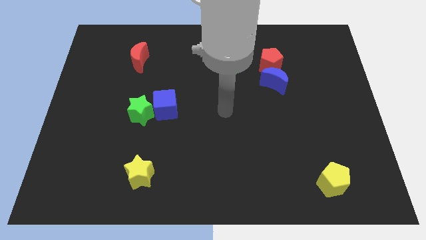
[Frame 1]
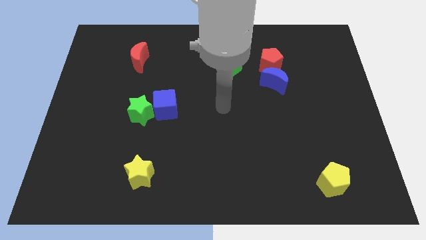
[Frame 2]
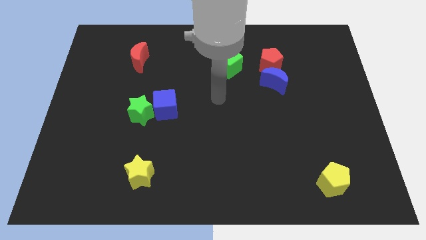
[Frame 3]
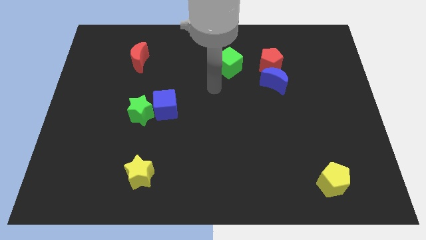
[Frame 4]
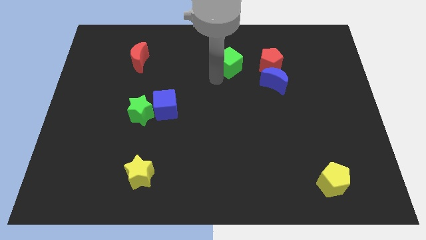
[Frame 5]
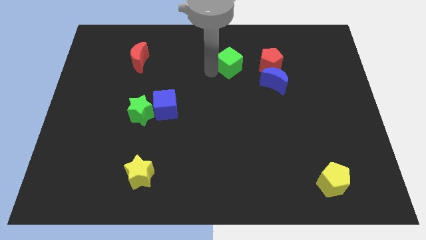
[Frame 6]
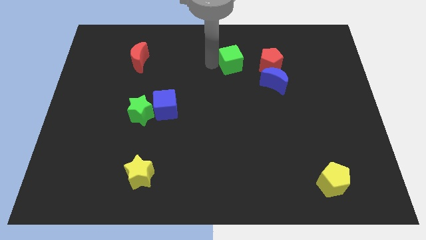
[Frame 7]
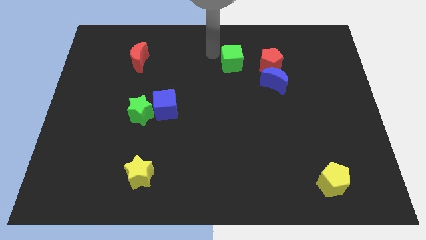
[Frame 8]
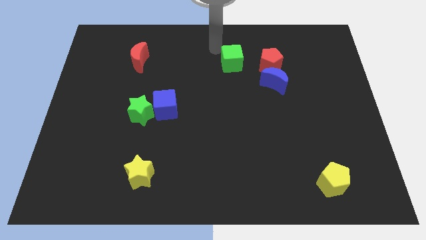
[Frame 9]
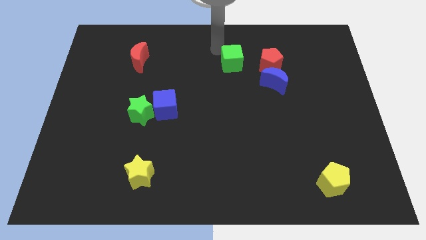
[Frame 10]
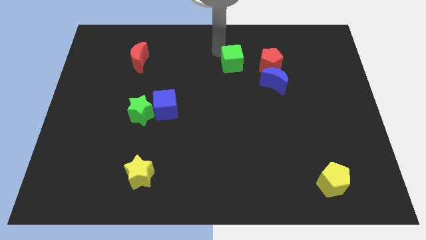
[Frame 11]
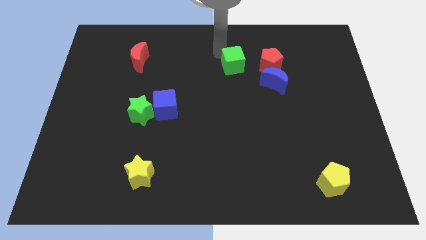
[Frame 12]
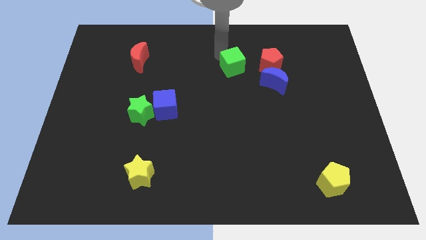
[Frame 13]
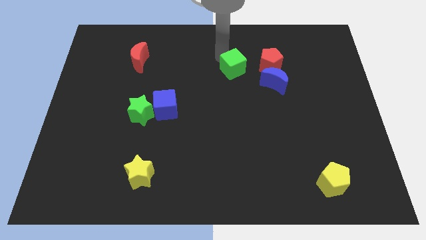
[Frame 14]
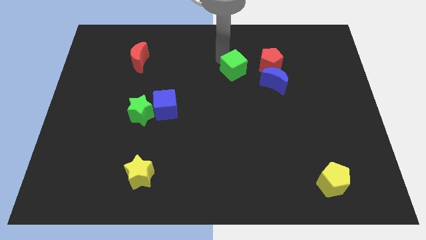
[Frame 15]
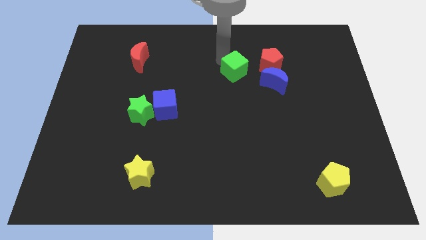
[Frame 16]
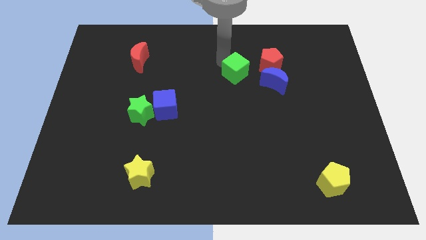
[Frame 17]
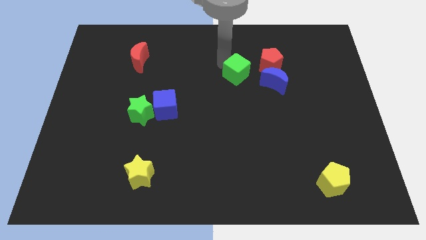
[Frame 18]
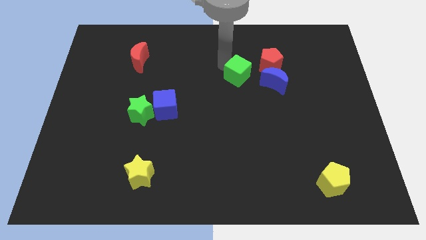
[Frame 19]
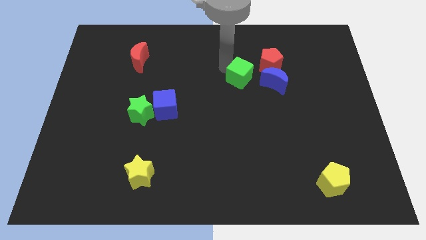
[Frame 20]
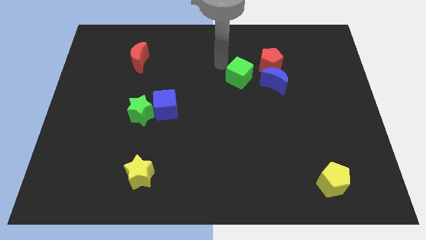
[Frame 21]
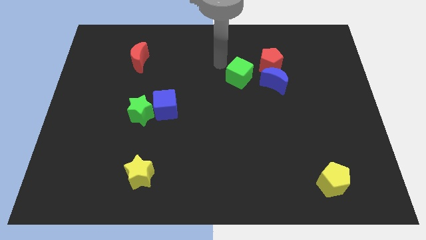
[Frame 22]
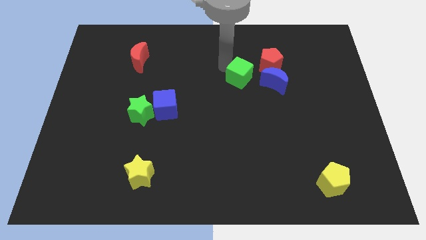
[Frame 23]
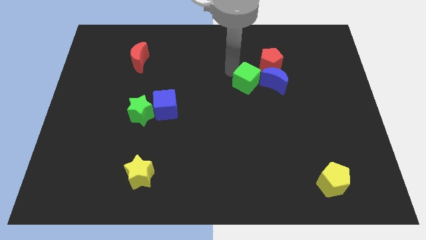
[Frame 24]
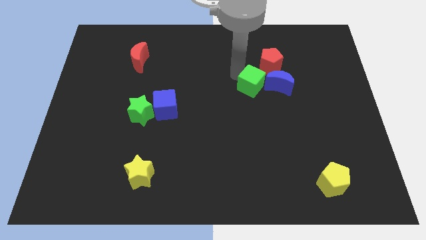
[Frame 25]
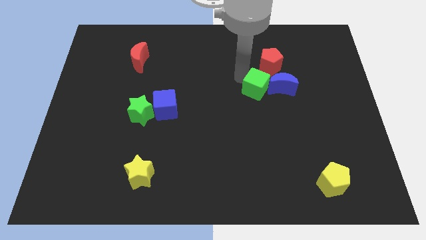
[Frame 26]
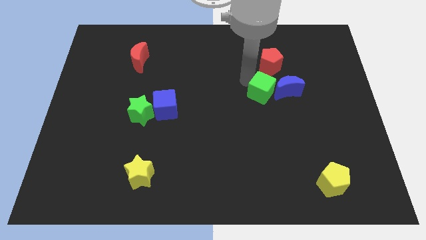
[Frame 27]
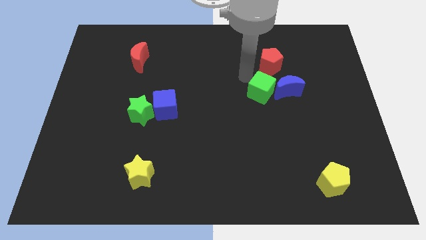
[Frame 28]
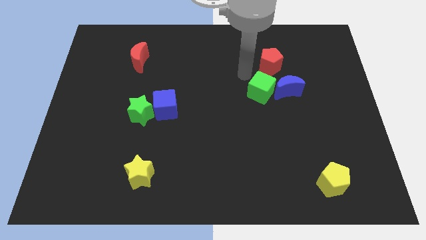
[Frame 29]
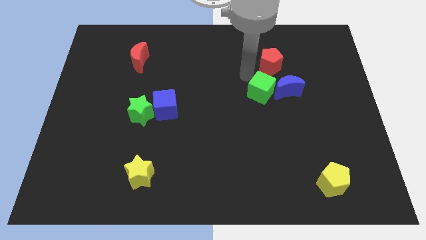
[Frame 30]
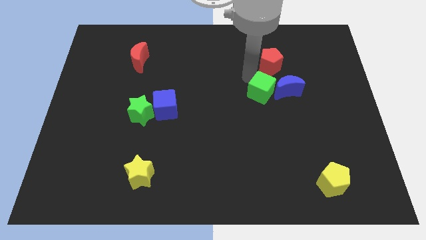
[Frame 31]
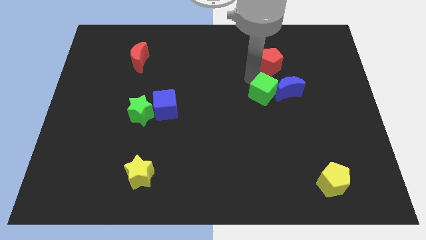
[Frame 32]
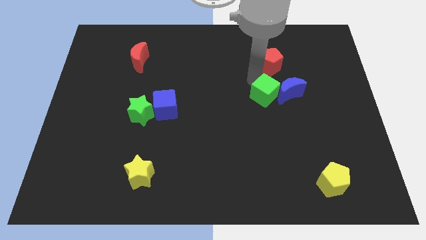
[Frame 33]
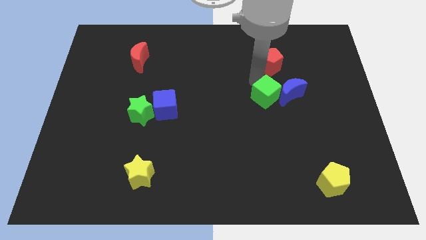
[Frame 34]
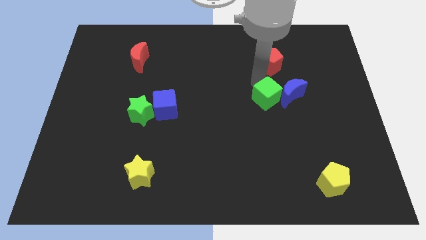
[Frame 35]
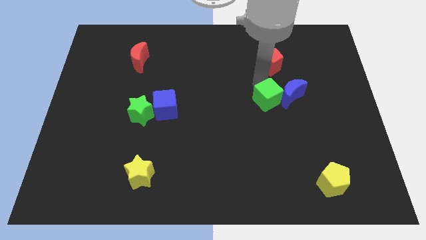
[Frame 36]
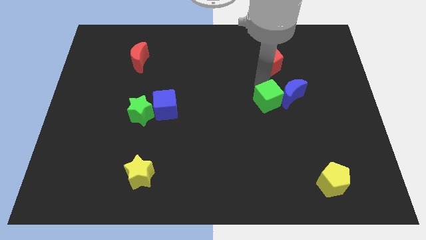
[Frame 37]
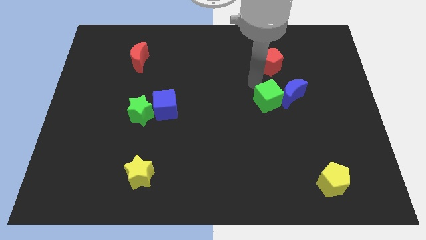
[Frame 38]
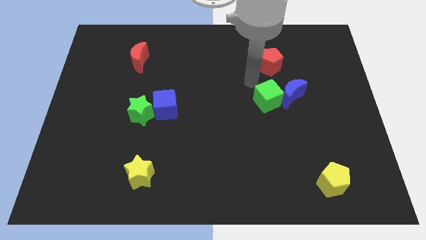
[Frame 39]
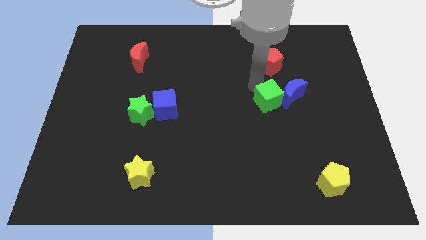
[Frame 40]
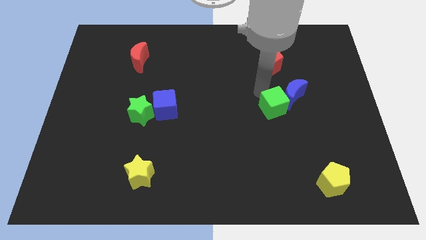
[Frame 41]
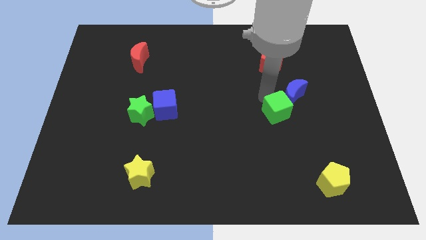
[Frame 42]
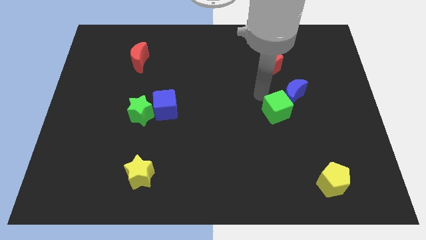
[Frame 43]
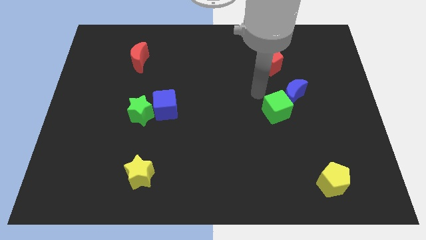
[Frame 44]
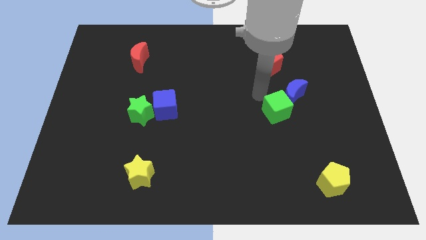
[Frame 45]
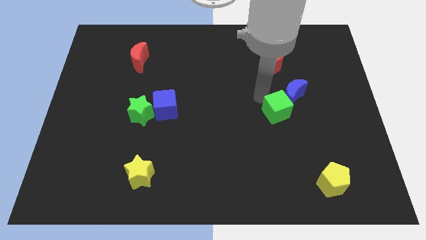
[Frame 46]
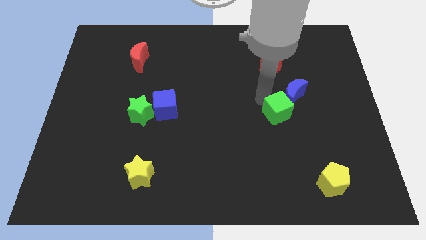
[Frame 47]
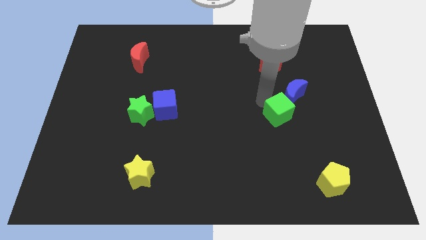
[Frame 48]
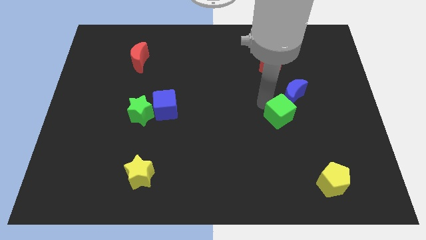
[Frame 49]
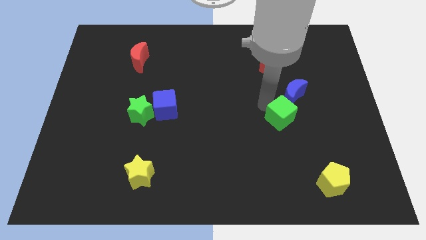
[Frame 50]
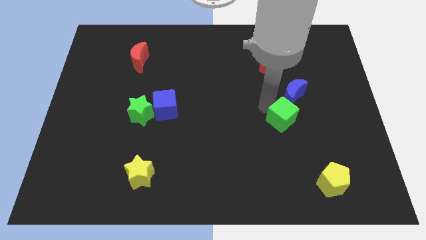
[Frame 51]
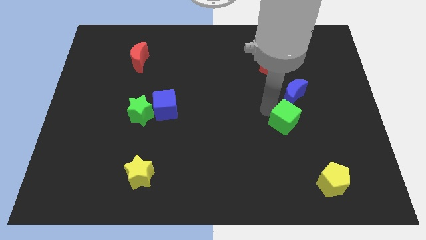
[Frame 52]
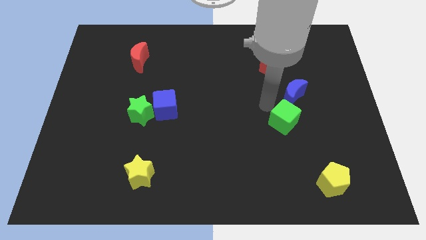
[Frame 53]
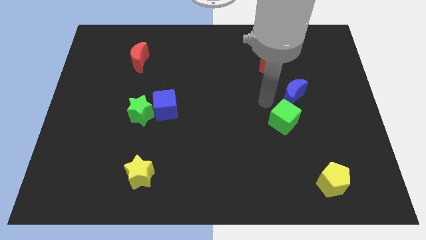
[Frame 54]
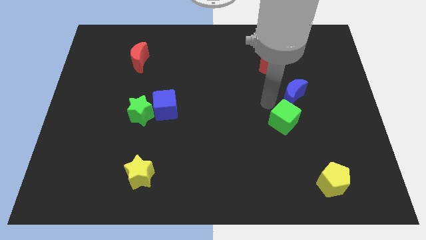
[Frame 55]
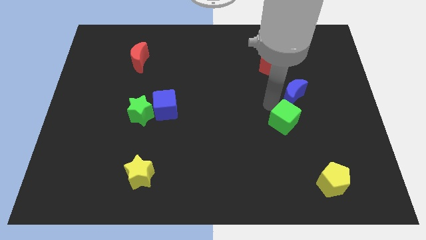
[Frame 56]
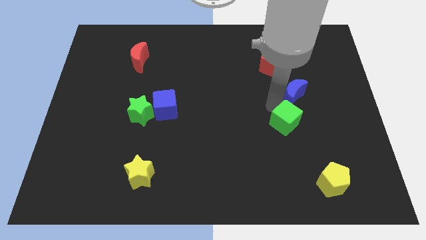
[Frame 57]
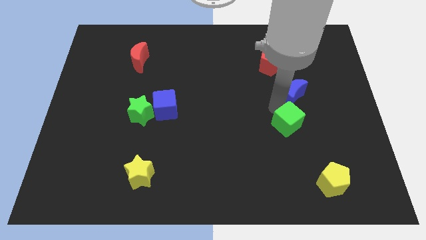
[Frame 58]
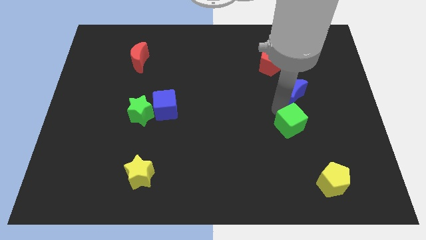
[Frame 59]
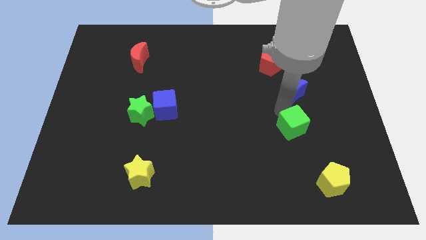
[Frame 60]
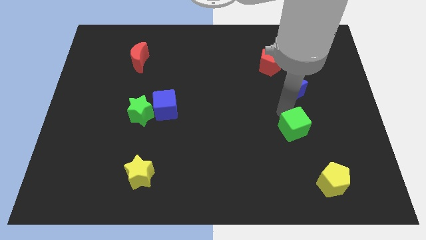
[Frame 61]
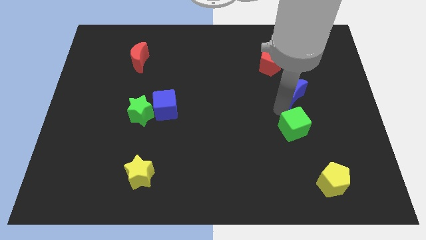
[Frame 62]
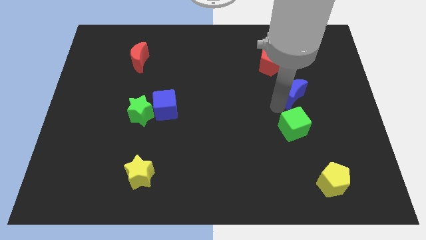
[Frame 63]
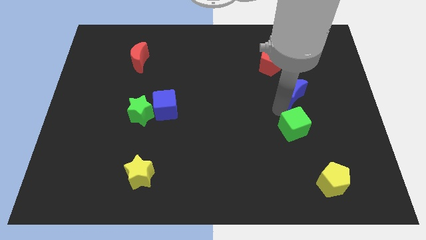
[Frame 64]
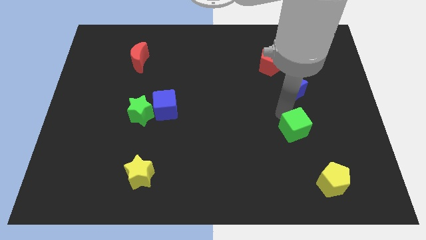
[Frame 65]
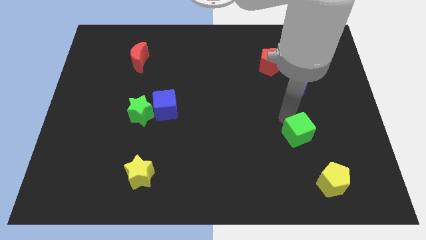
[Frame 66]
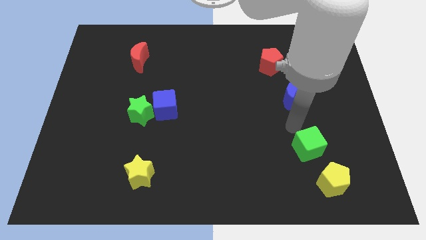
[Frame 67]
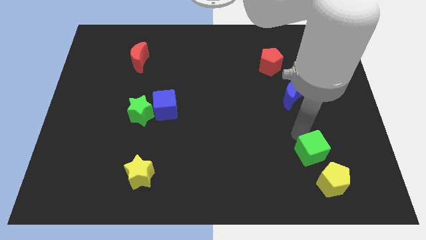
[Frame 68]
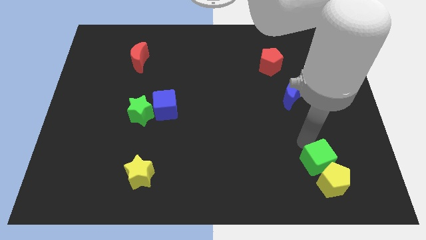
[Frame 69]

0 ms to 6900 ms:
put the green cube towards the yellow pentagon

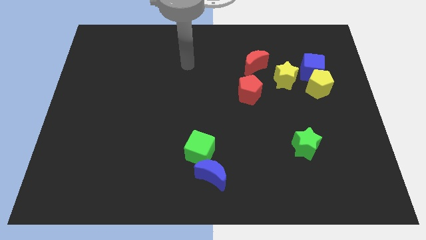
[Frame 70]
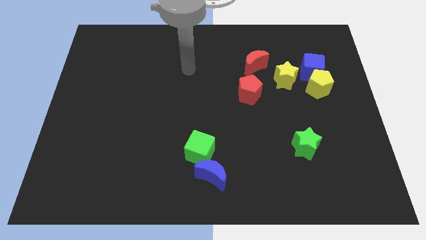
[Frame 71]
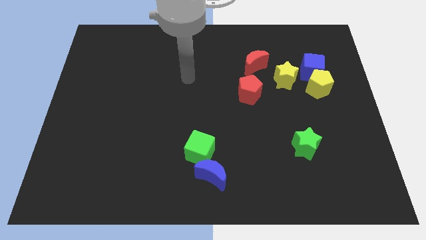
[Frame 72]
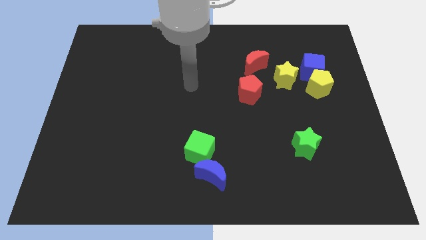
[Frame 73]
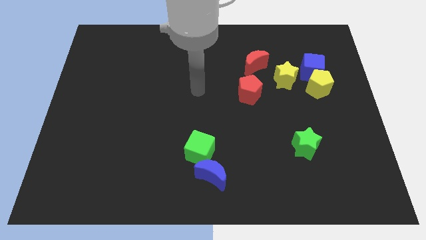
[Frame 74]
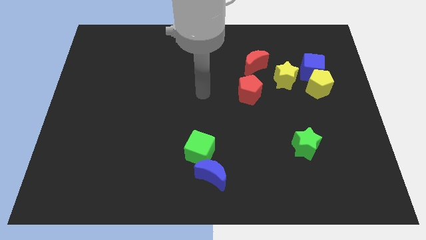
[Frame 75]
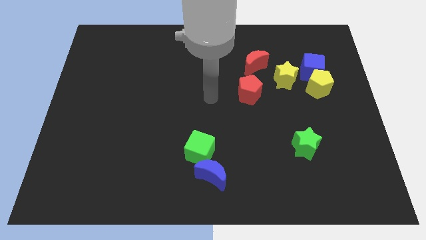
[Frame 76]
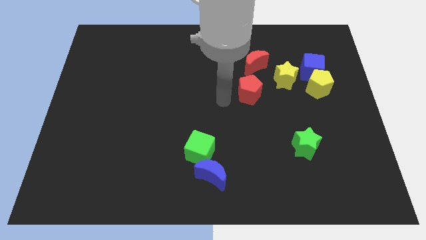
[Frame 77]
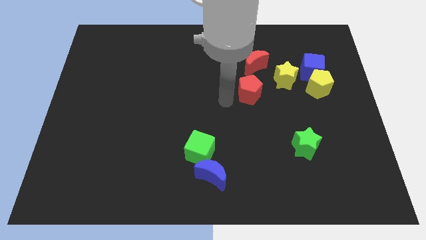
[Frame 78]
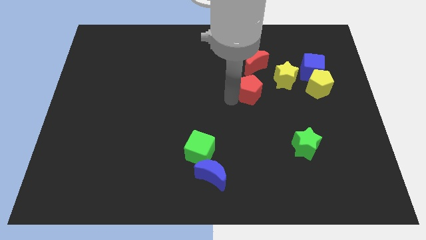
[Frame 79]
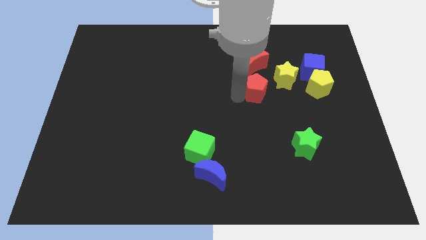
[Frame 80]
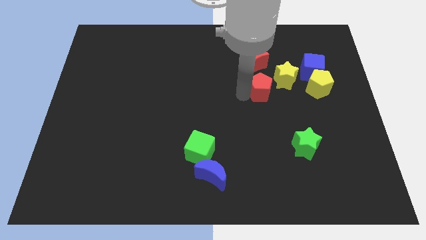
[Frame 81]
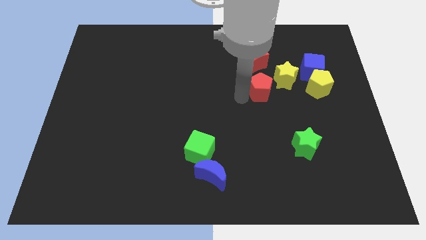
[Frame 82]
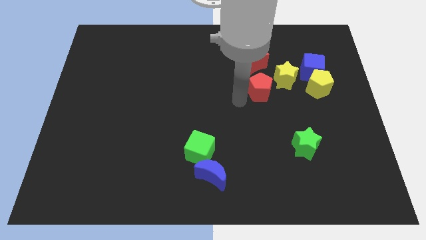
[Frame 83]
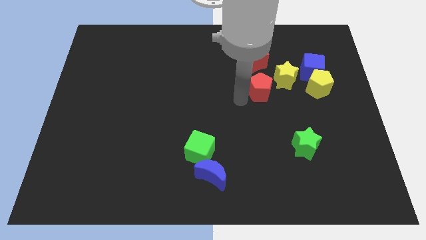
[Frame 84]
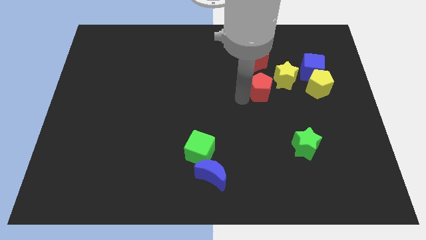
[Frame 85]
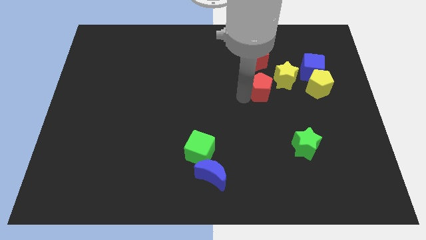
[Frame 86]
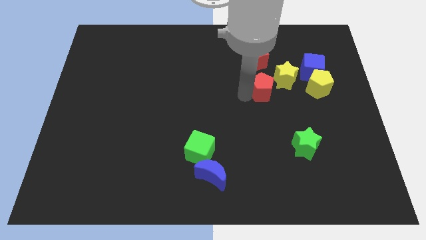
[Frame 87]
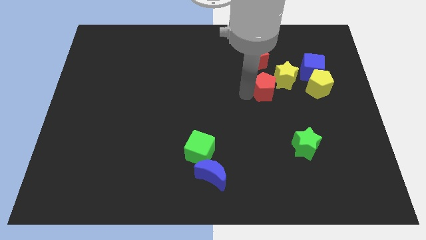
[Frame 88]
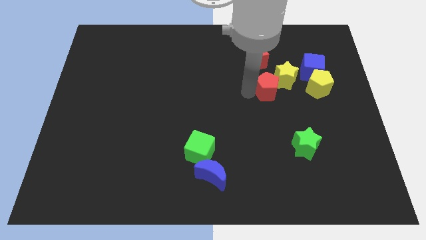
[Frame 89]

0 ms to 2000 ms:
push the red pentagon close to the yellow star
